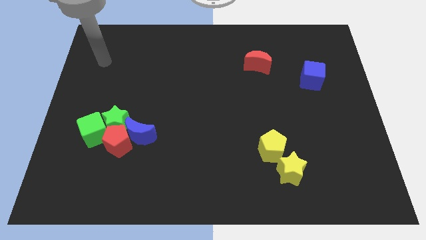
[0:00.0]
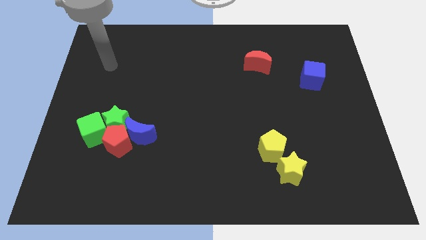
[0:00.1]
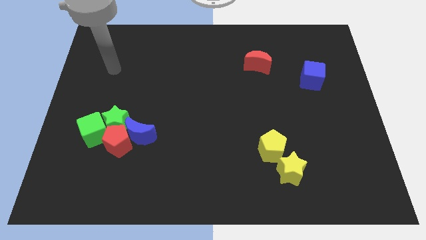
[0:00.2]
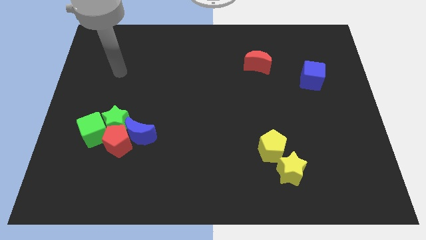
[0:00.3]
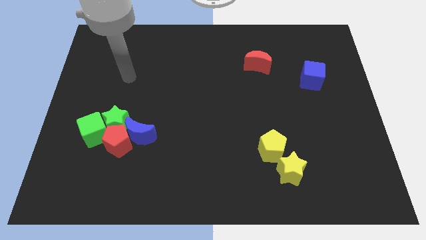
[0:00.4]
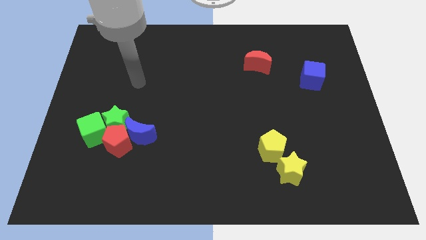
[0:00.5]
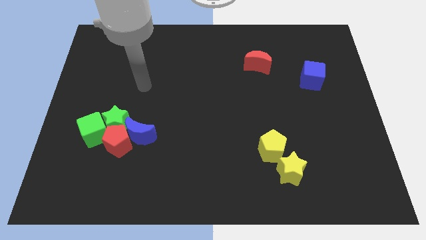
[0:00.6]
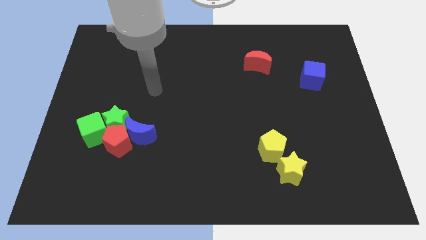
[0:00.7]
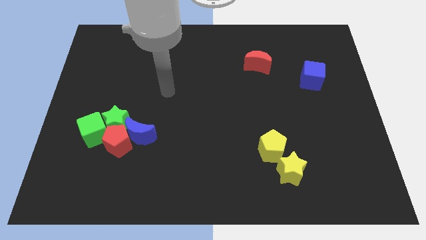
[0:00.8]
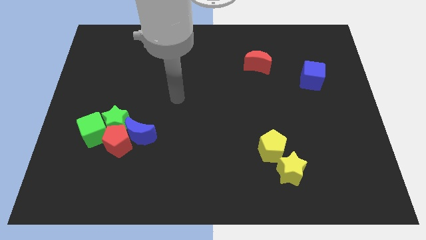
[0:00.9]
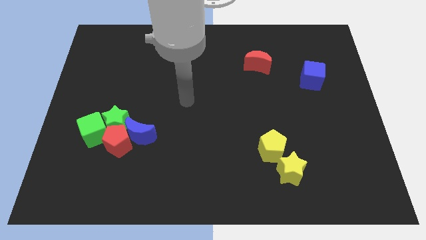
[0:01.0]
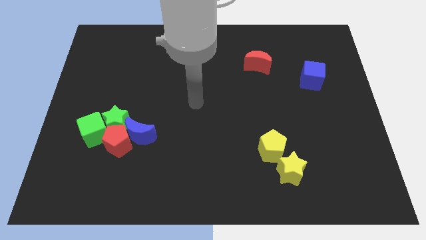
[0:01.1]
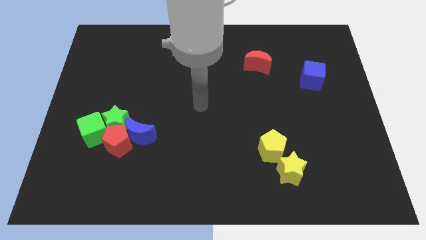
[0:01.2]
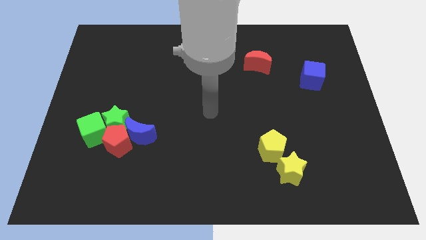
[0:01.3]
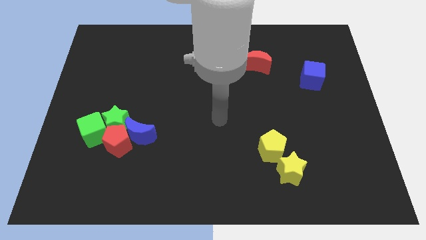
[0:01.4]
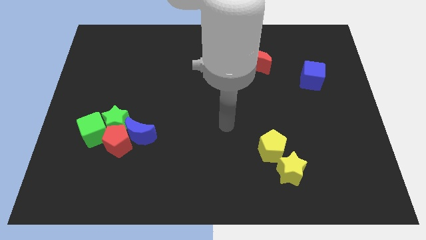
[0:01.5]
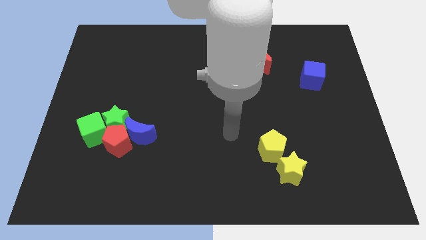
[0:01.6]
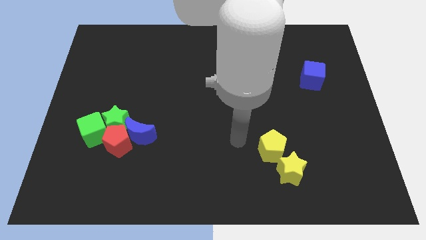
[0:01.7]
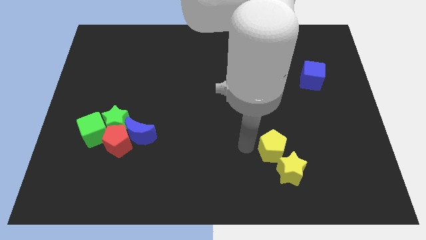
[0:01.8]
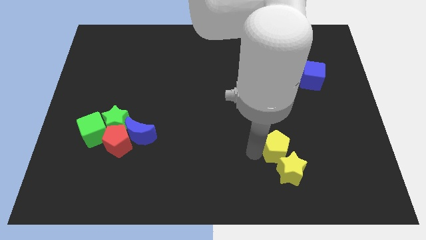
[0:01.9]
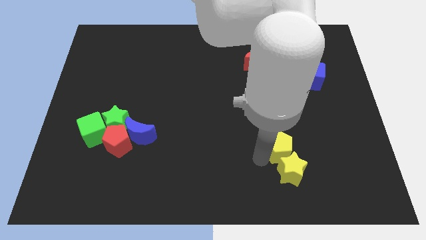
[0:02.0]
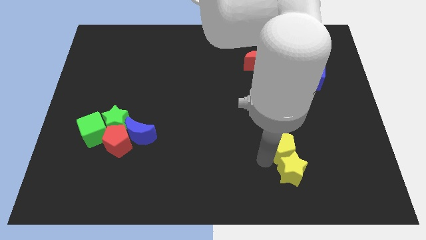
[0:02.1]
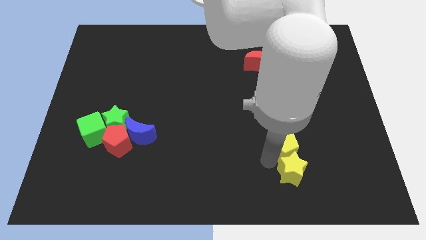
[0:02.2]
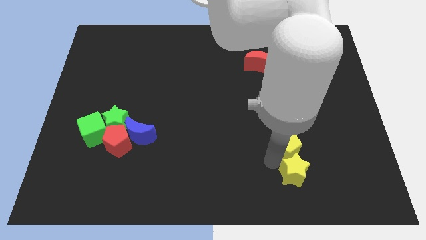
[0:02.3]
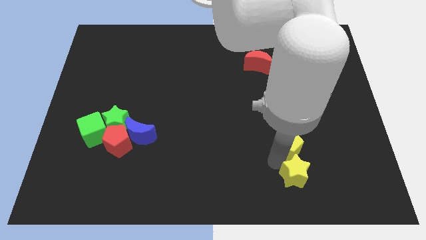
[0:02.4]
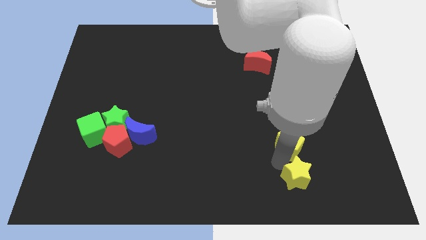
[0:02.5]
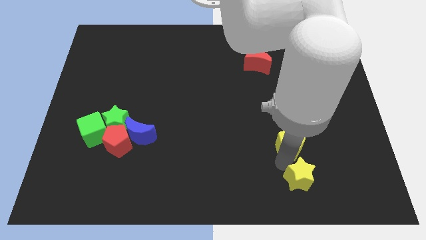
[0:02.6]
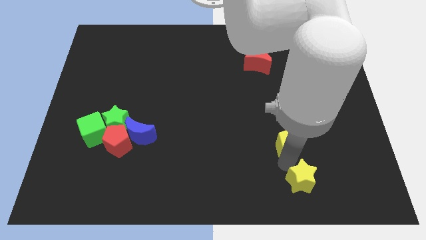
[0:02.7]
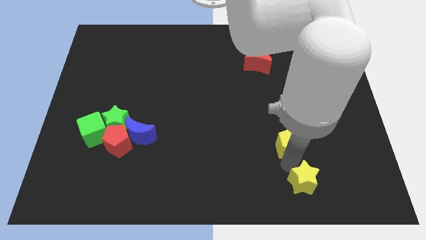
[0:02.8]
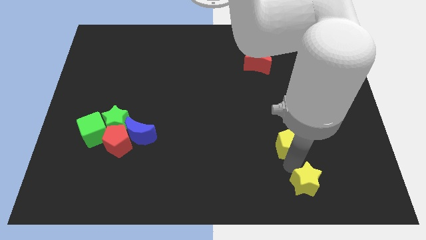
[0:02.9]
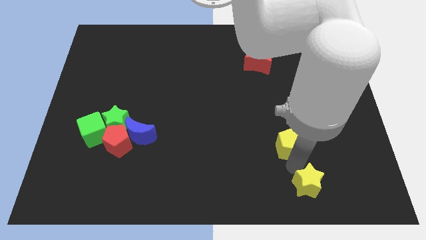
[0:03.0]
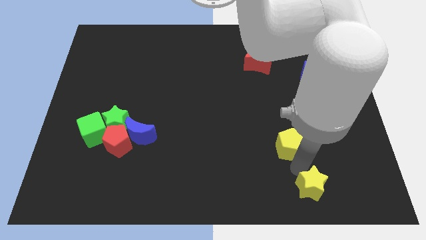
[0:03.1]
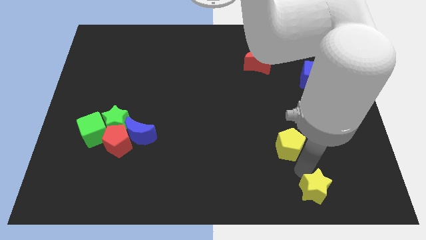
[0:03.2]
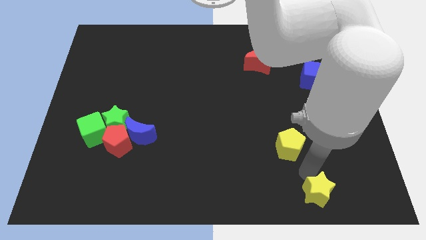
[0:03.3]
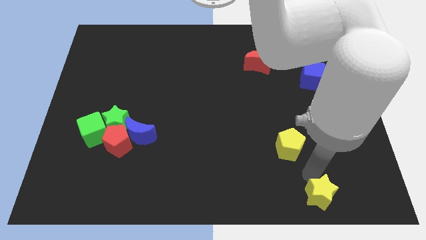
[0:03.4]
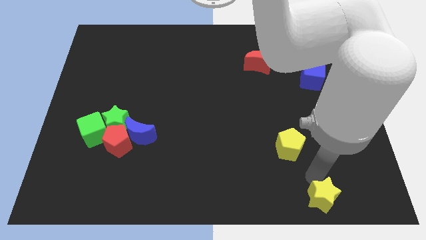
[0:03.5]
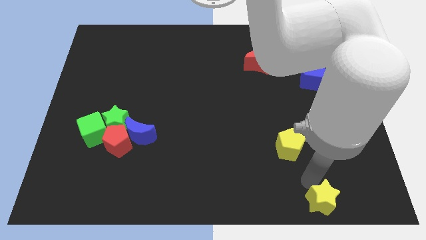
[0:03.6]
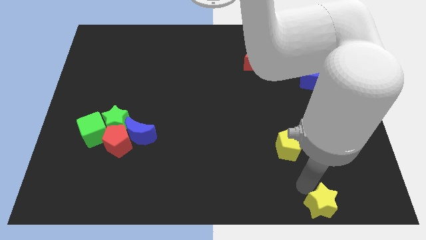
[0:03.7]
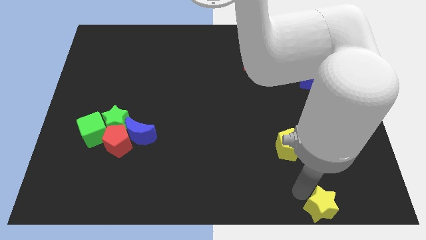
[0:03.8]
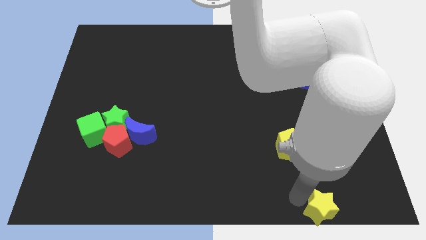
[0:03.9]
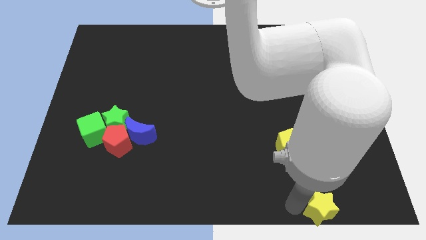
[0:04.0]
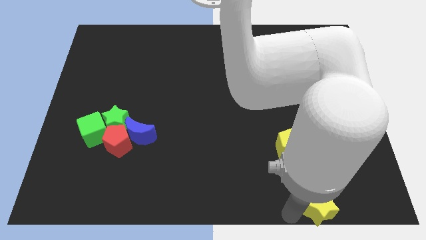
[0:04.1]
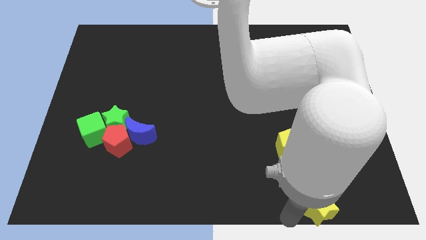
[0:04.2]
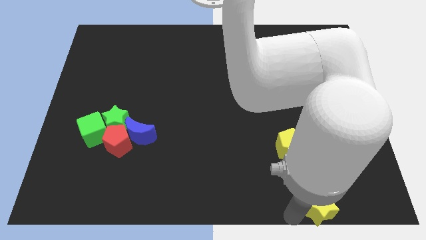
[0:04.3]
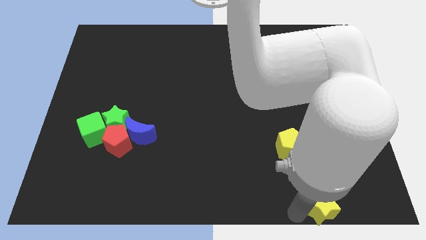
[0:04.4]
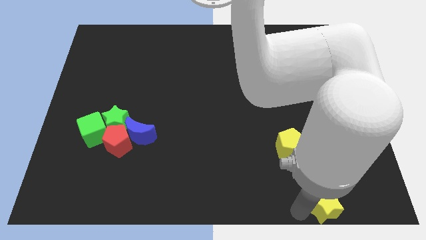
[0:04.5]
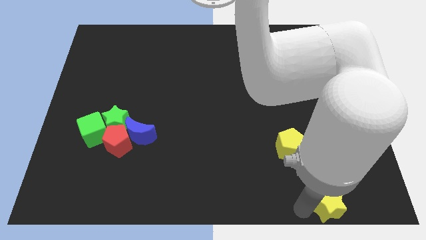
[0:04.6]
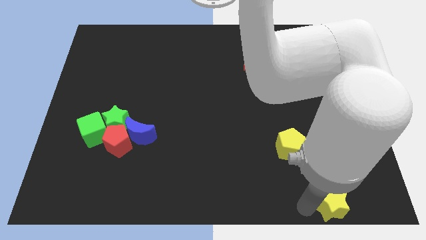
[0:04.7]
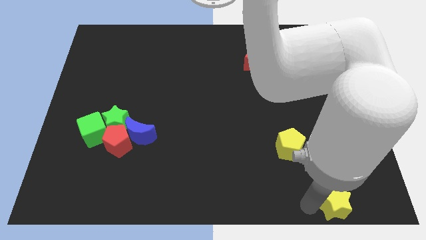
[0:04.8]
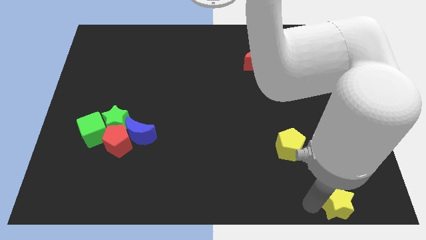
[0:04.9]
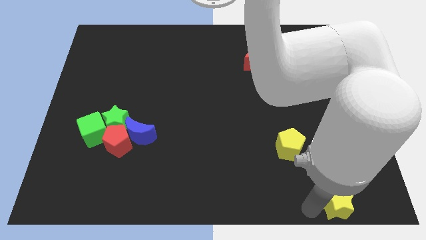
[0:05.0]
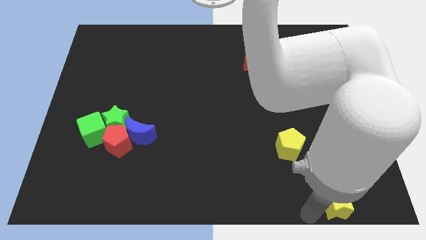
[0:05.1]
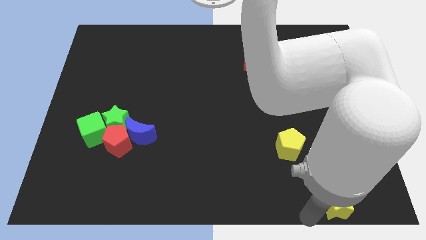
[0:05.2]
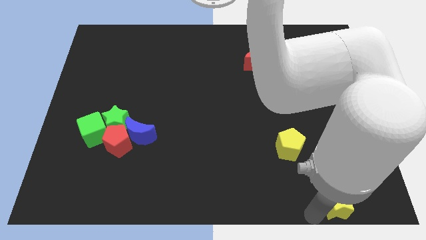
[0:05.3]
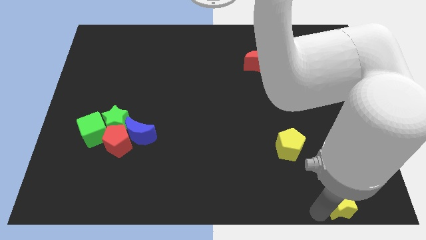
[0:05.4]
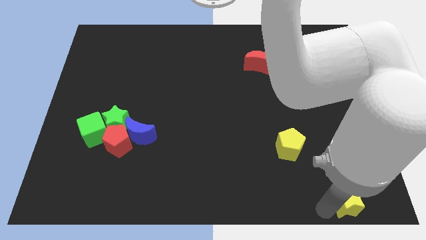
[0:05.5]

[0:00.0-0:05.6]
move the yellow star to the lower right corner

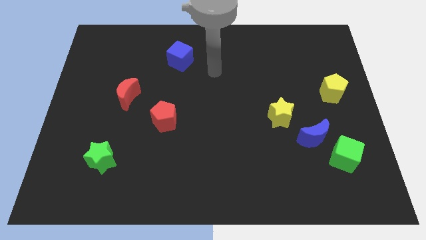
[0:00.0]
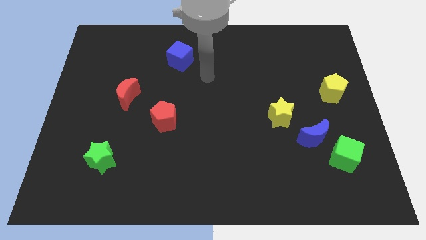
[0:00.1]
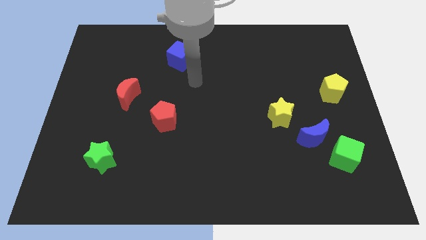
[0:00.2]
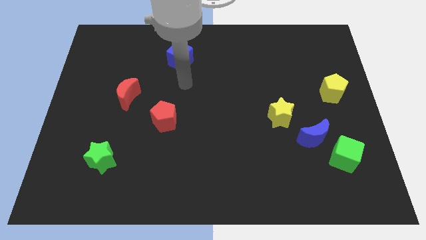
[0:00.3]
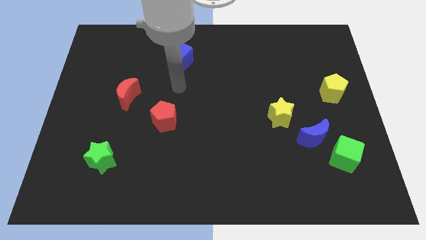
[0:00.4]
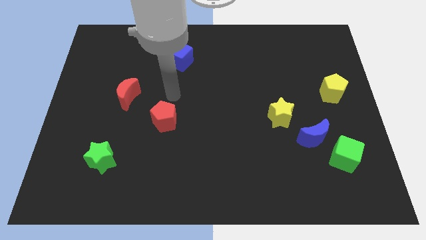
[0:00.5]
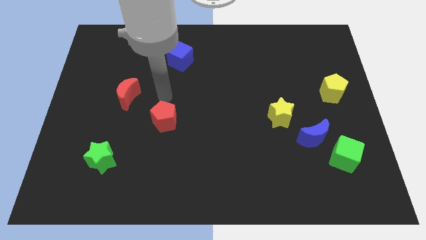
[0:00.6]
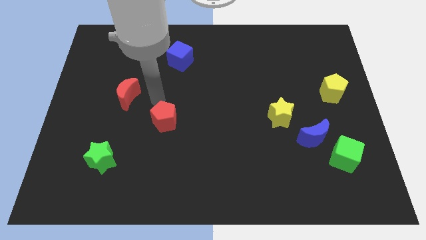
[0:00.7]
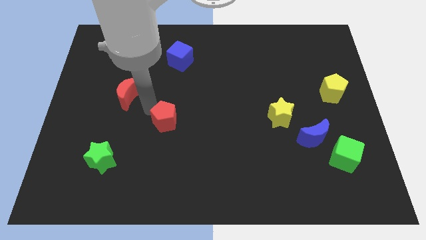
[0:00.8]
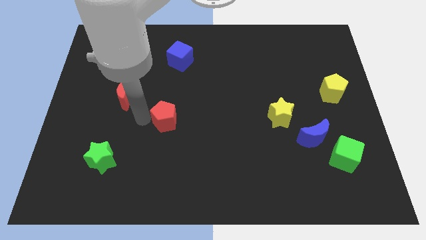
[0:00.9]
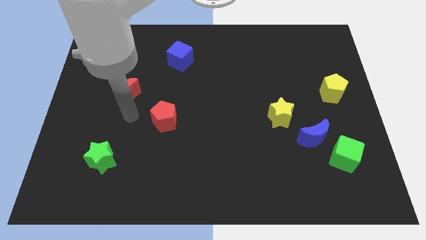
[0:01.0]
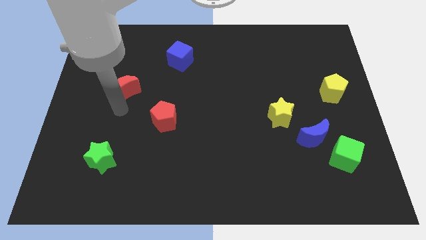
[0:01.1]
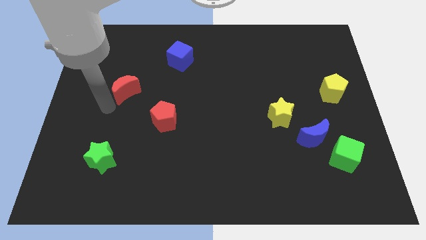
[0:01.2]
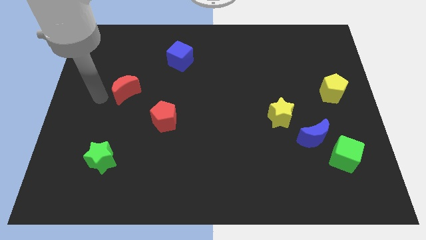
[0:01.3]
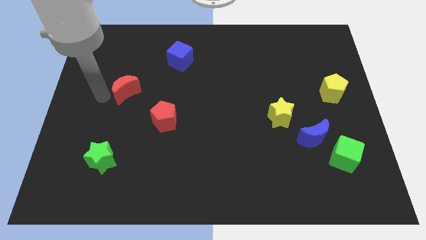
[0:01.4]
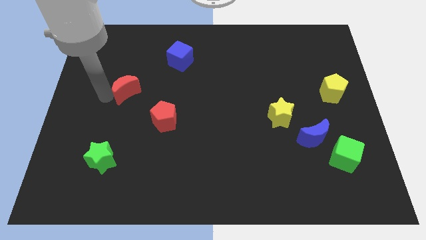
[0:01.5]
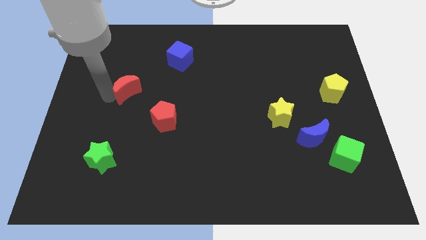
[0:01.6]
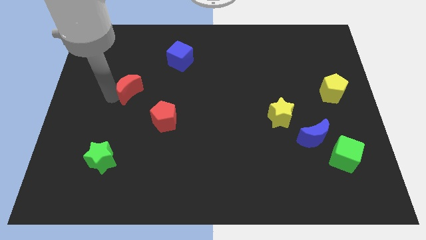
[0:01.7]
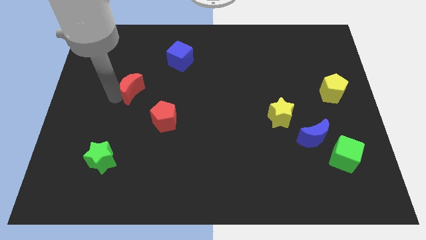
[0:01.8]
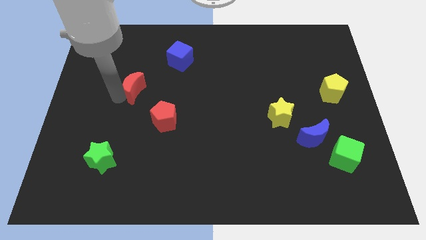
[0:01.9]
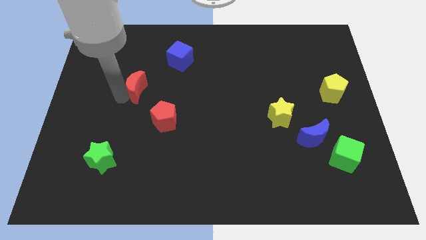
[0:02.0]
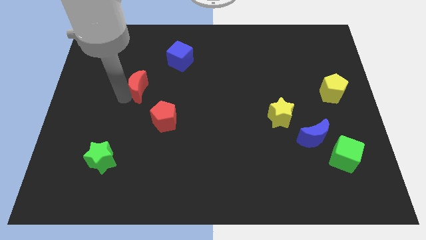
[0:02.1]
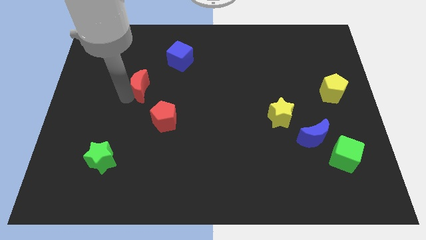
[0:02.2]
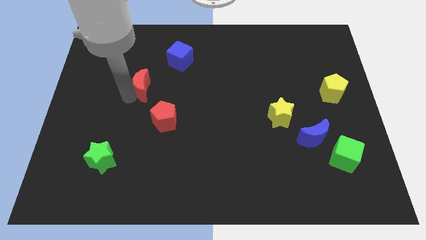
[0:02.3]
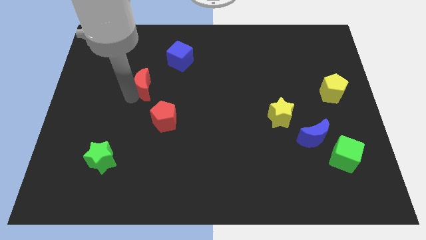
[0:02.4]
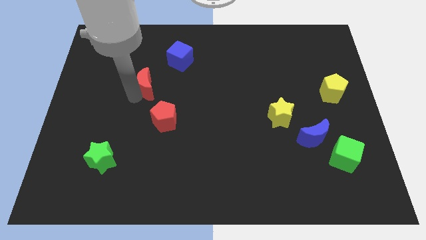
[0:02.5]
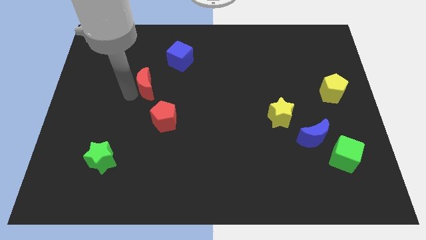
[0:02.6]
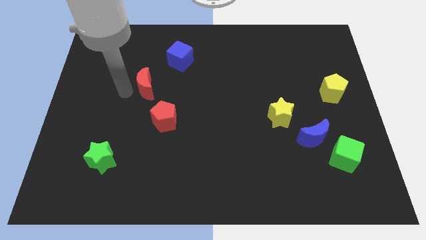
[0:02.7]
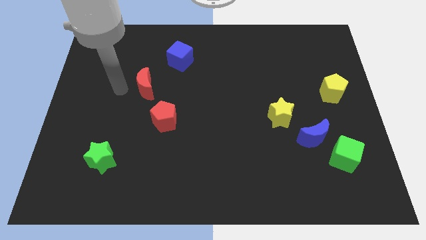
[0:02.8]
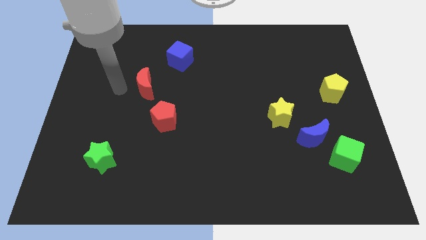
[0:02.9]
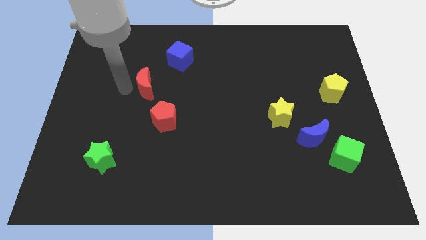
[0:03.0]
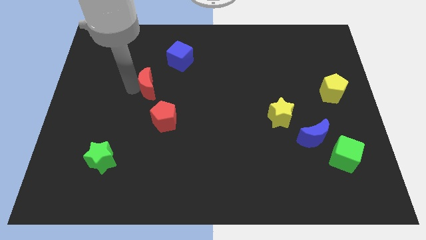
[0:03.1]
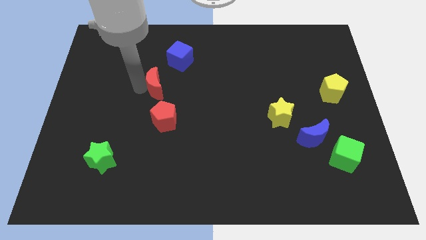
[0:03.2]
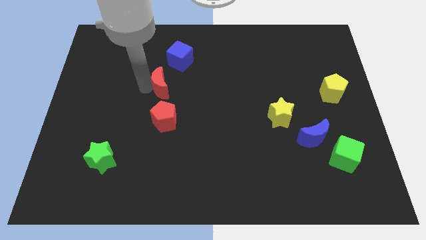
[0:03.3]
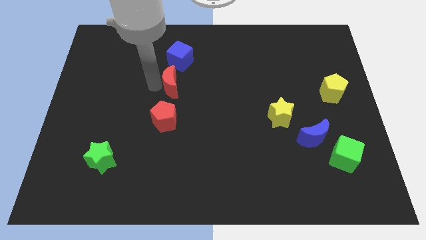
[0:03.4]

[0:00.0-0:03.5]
push the red moon to the center
